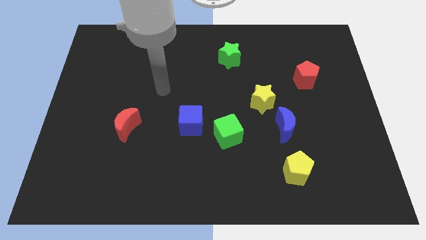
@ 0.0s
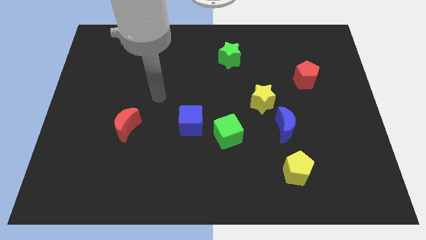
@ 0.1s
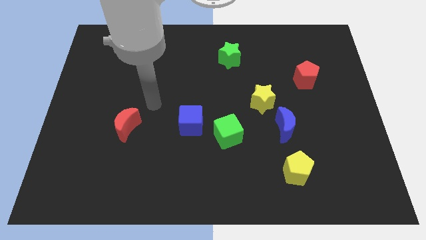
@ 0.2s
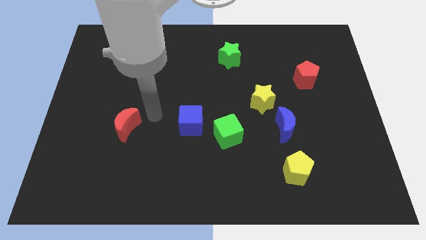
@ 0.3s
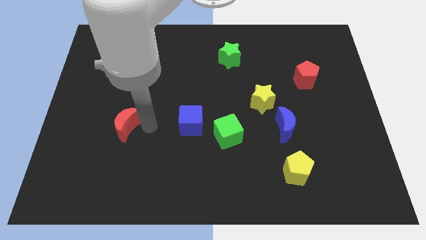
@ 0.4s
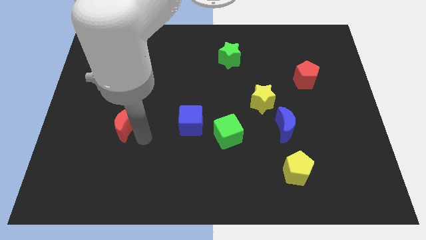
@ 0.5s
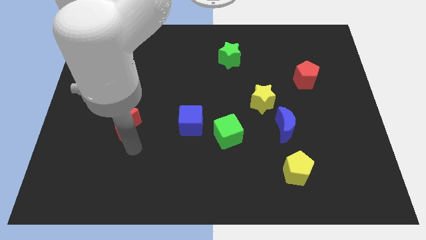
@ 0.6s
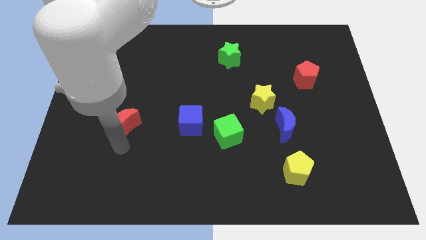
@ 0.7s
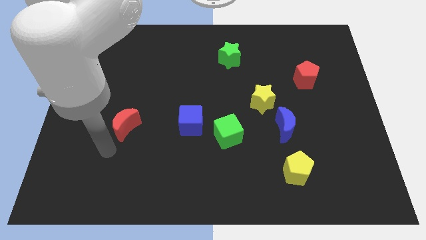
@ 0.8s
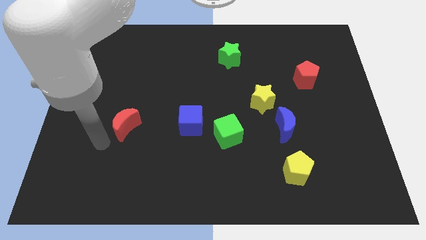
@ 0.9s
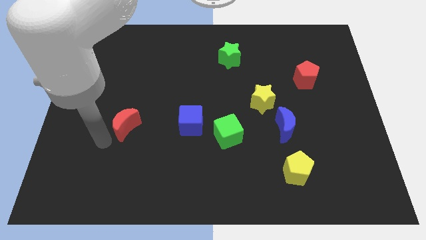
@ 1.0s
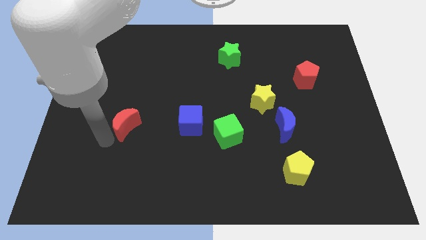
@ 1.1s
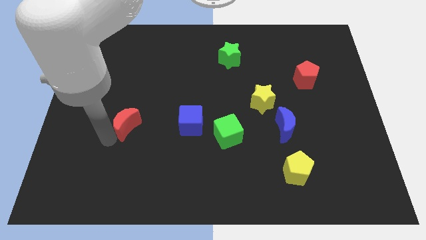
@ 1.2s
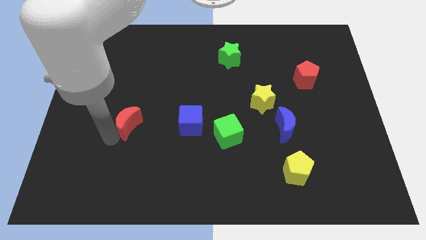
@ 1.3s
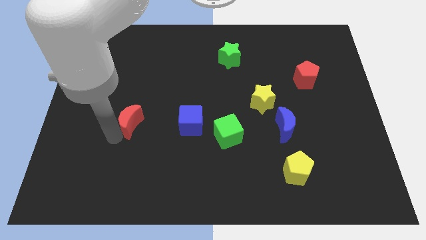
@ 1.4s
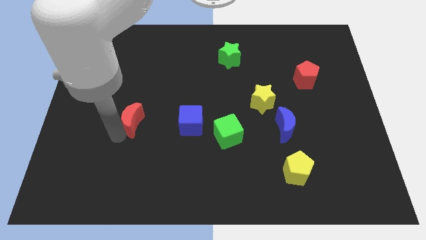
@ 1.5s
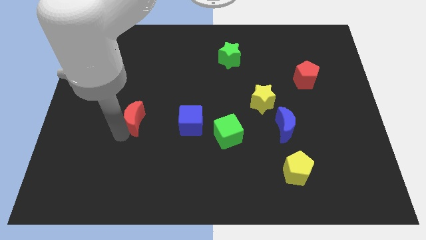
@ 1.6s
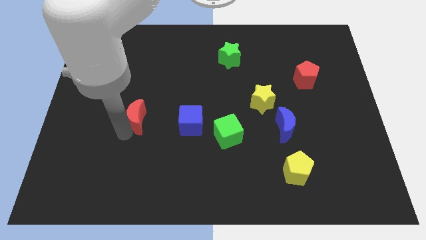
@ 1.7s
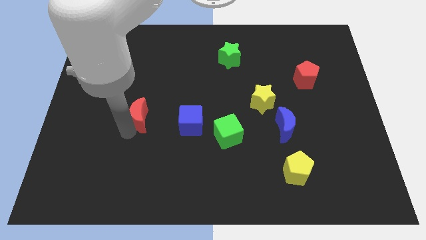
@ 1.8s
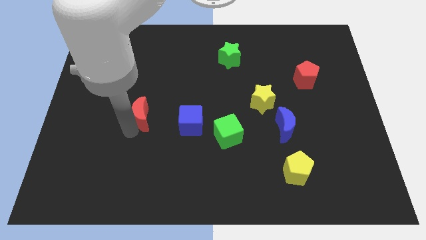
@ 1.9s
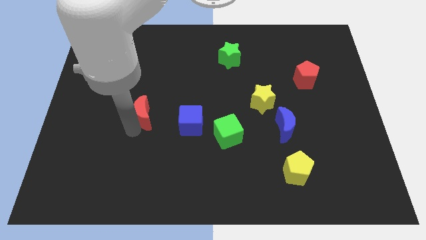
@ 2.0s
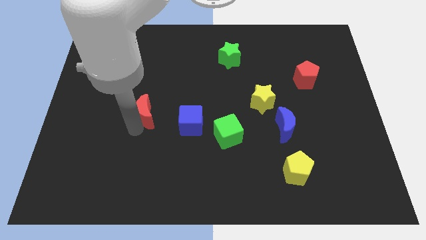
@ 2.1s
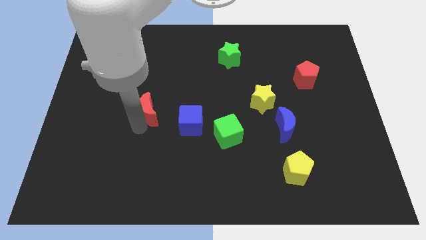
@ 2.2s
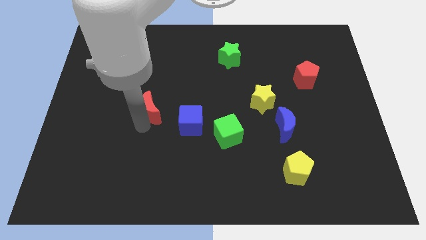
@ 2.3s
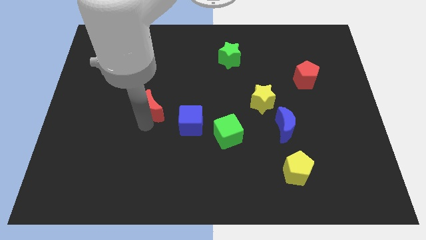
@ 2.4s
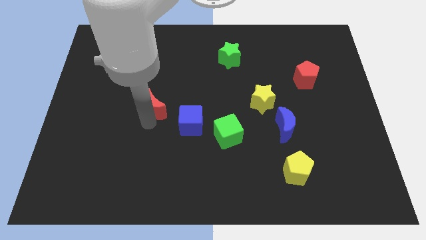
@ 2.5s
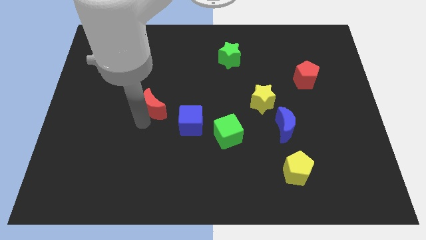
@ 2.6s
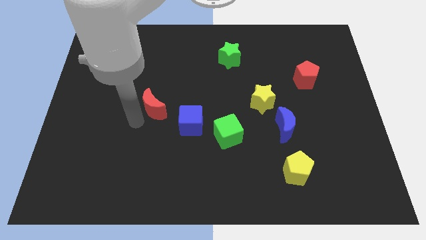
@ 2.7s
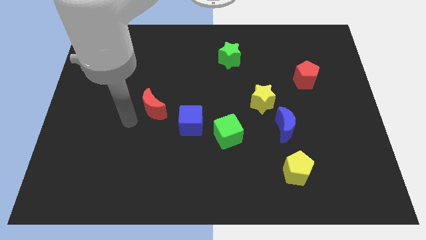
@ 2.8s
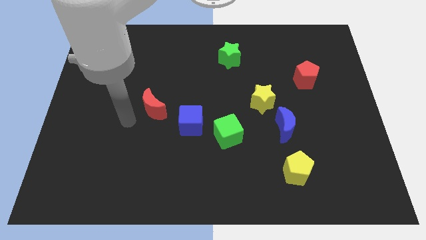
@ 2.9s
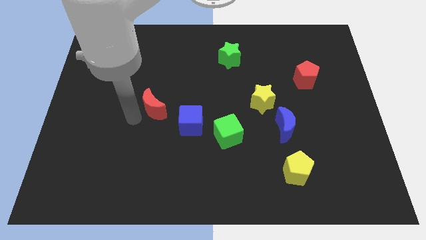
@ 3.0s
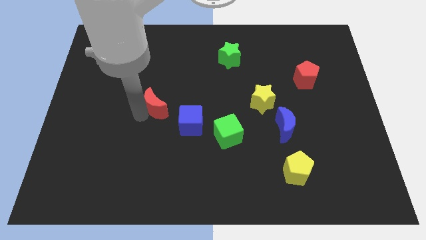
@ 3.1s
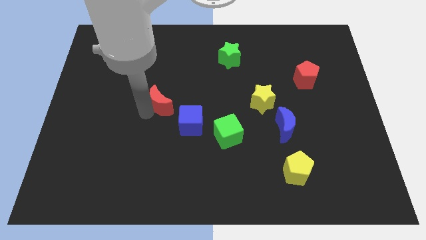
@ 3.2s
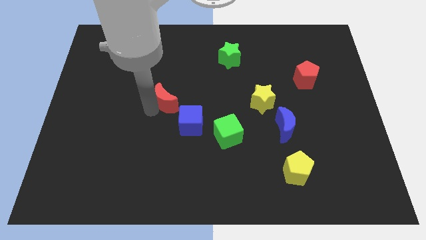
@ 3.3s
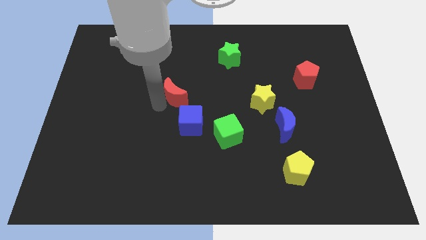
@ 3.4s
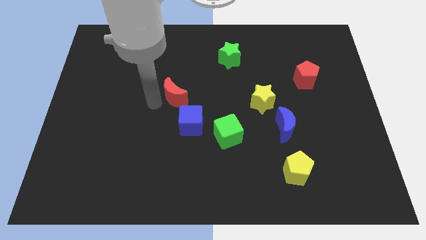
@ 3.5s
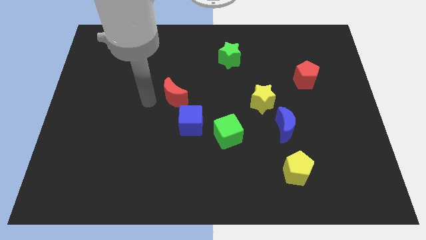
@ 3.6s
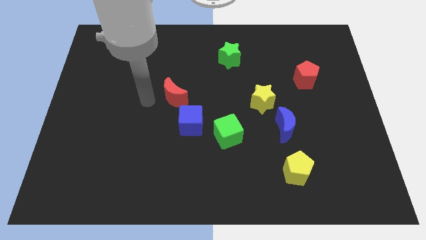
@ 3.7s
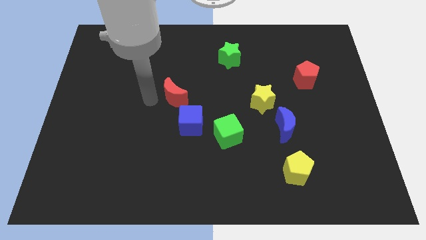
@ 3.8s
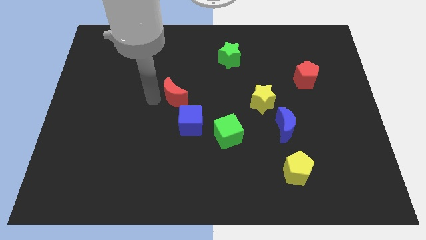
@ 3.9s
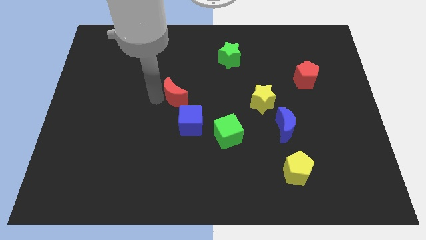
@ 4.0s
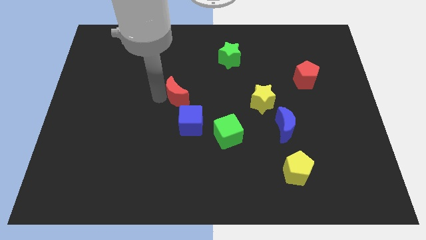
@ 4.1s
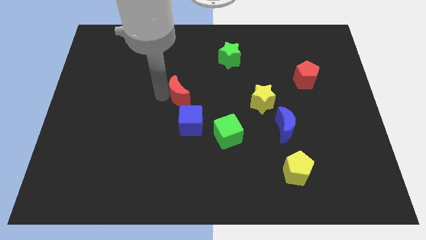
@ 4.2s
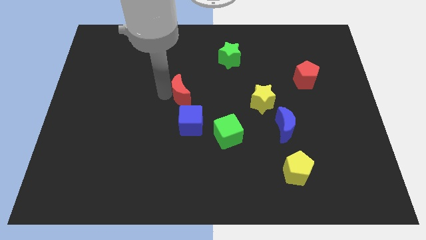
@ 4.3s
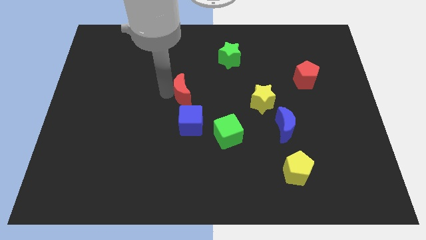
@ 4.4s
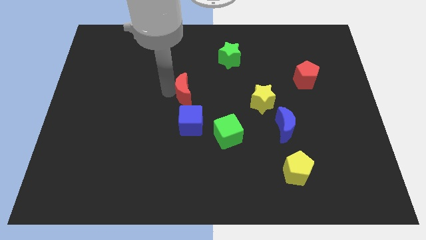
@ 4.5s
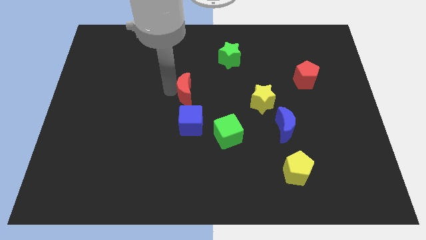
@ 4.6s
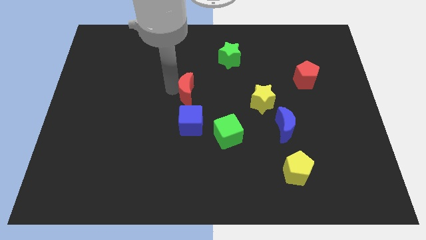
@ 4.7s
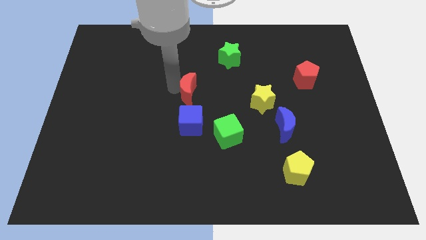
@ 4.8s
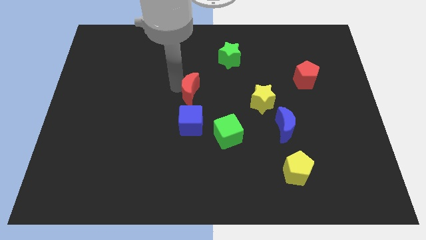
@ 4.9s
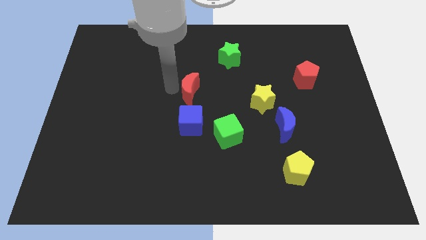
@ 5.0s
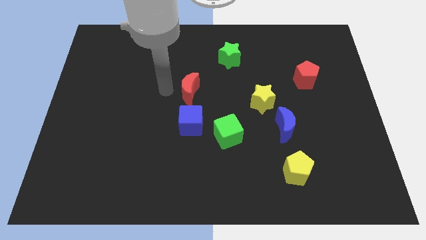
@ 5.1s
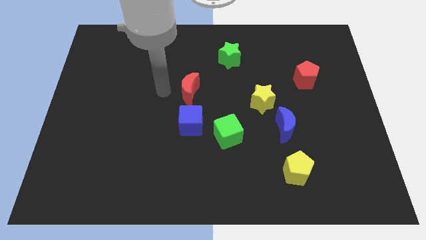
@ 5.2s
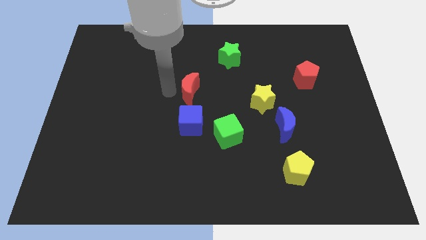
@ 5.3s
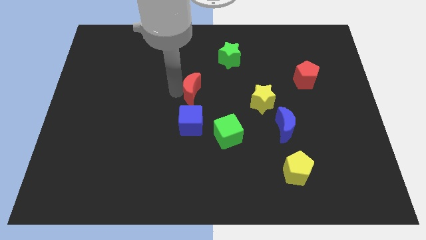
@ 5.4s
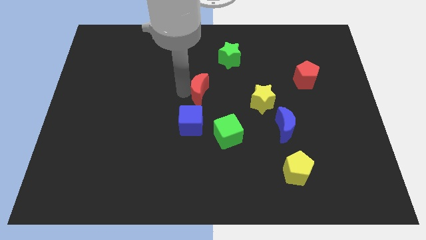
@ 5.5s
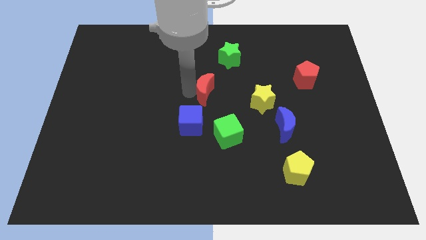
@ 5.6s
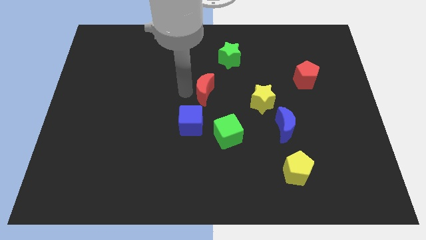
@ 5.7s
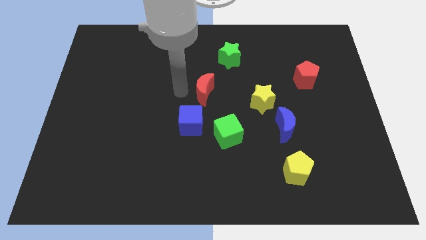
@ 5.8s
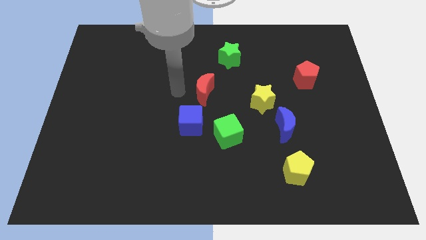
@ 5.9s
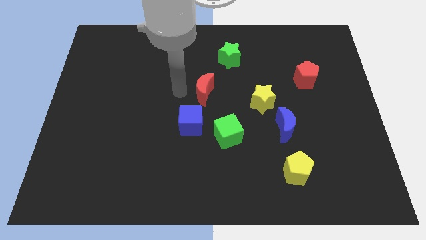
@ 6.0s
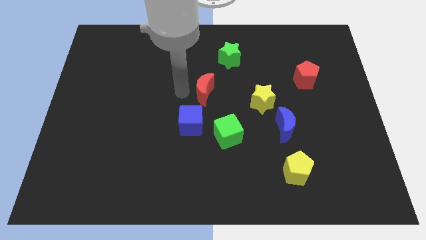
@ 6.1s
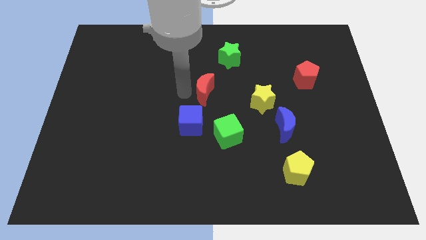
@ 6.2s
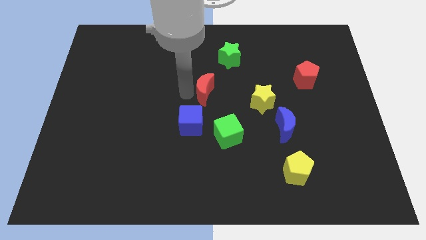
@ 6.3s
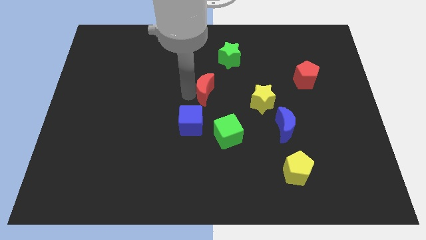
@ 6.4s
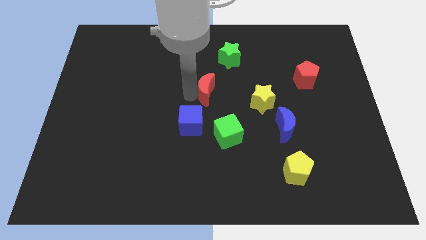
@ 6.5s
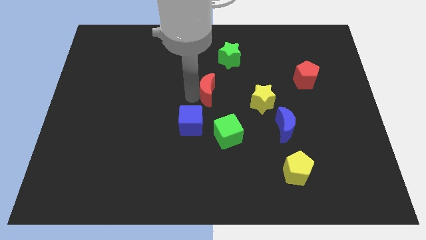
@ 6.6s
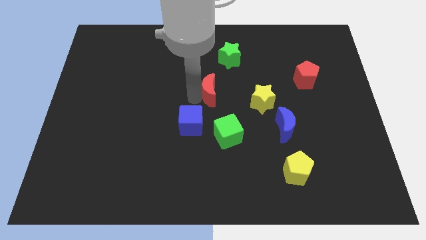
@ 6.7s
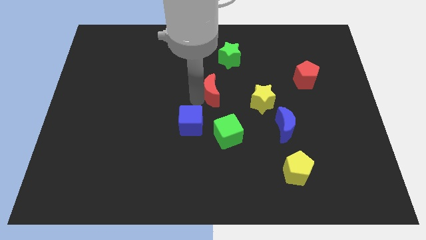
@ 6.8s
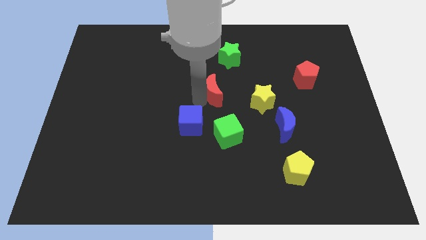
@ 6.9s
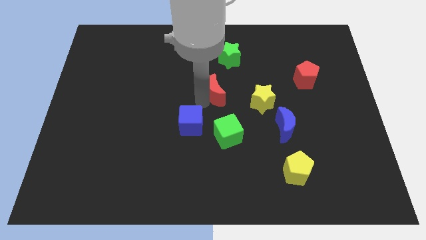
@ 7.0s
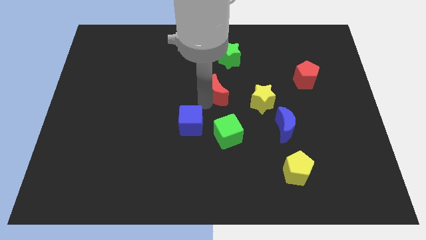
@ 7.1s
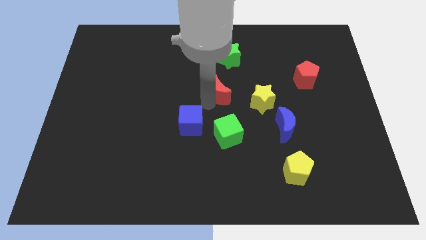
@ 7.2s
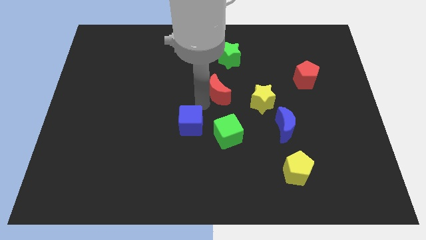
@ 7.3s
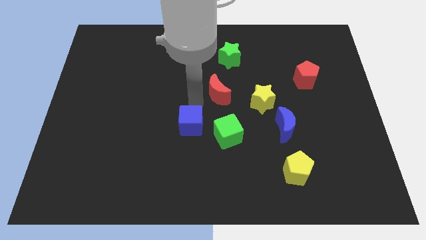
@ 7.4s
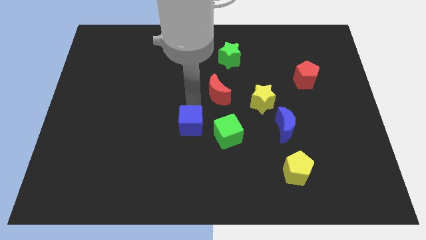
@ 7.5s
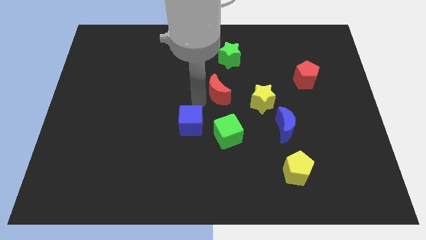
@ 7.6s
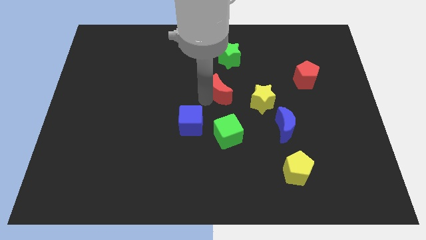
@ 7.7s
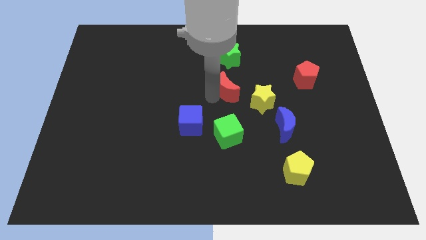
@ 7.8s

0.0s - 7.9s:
push the red moon to the top left of the yellow star
